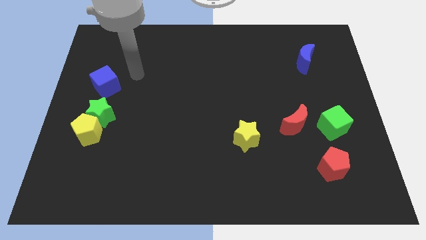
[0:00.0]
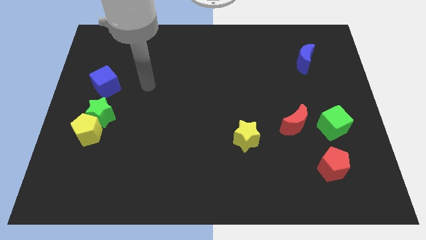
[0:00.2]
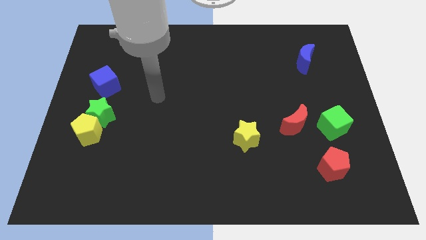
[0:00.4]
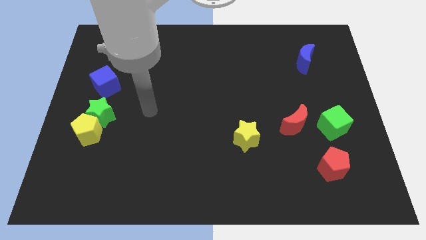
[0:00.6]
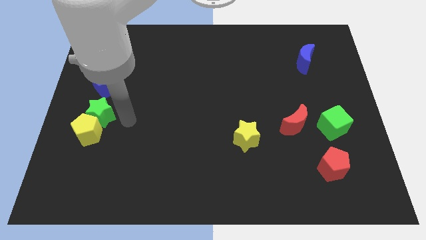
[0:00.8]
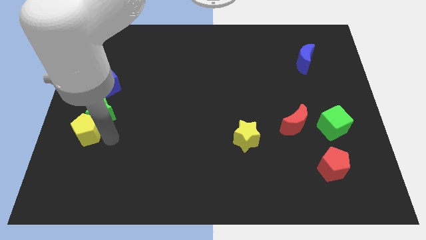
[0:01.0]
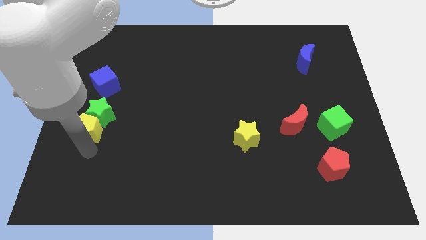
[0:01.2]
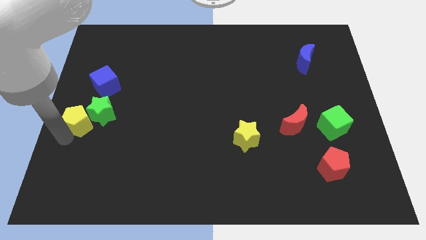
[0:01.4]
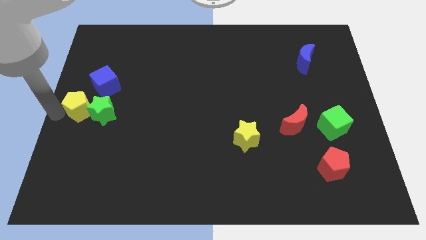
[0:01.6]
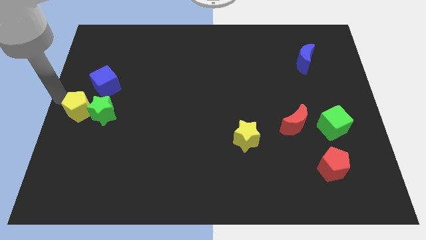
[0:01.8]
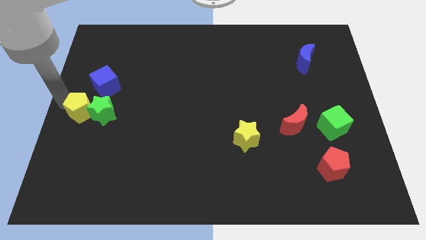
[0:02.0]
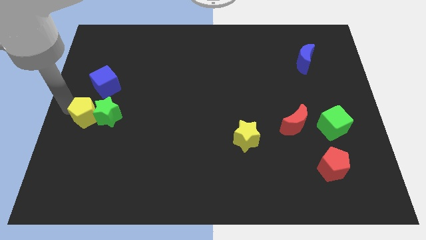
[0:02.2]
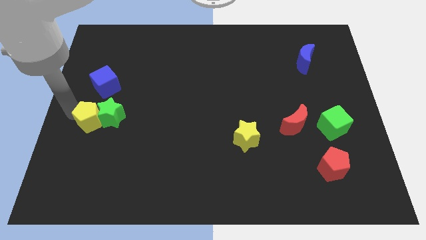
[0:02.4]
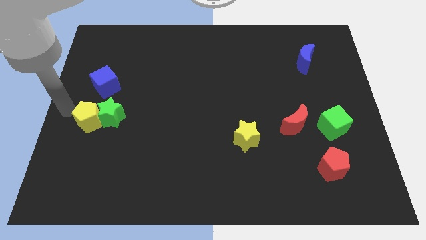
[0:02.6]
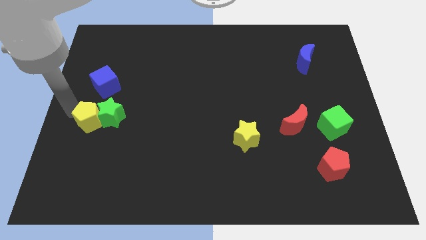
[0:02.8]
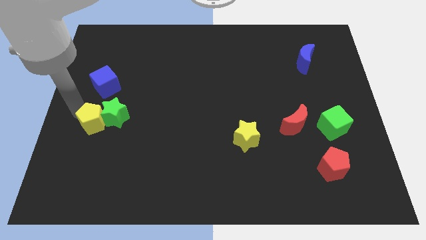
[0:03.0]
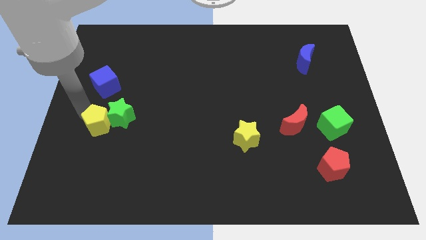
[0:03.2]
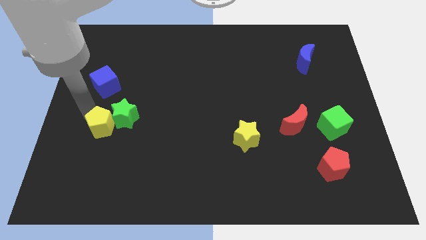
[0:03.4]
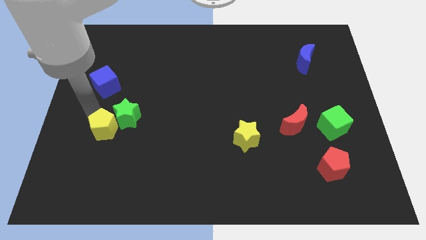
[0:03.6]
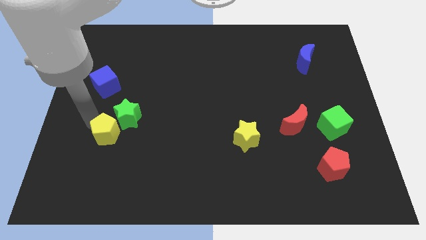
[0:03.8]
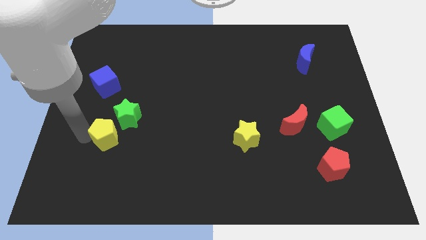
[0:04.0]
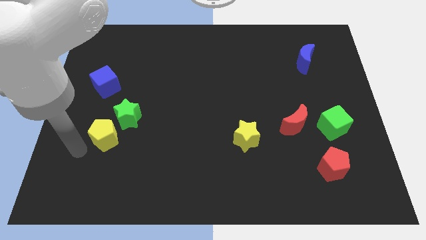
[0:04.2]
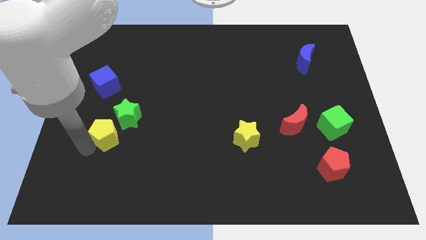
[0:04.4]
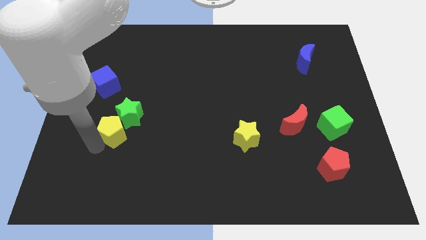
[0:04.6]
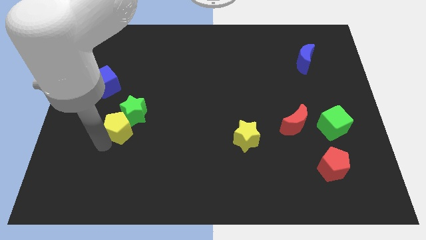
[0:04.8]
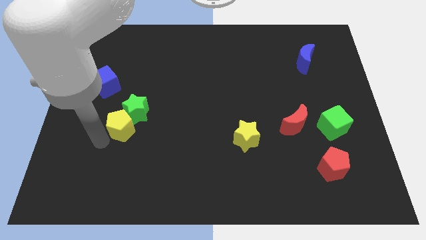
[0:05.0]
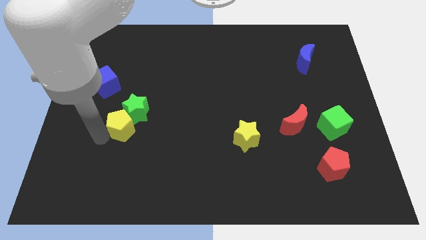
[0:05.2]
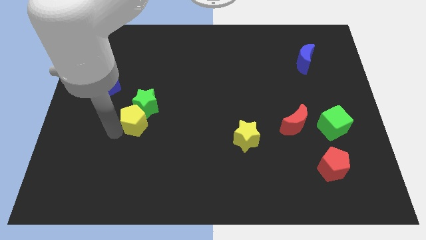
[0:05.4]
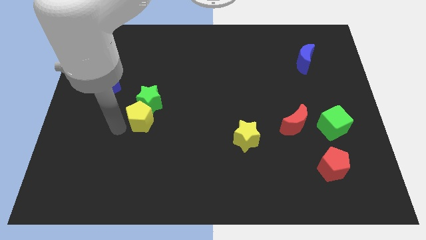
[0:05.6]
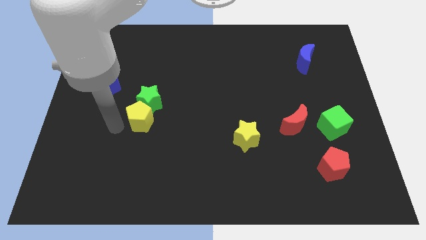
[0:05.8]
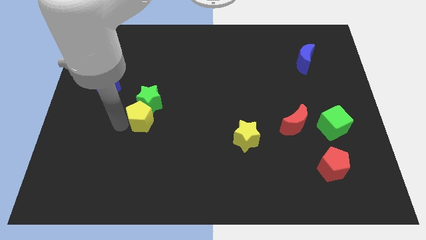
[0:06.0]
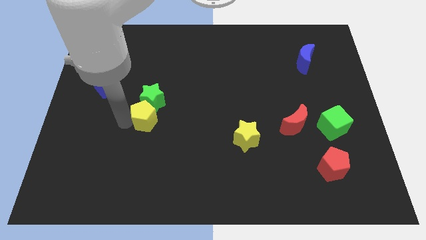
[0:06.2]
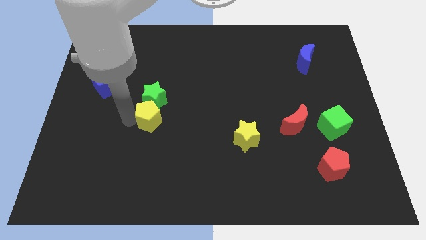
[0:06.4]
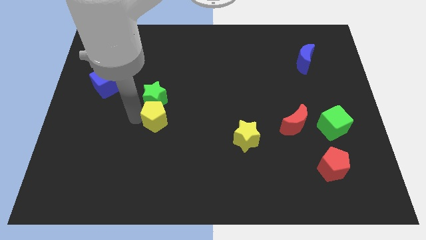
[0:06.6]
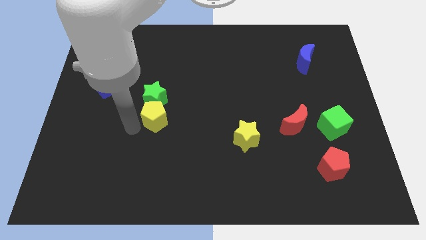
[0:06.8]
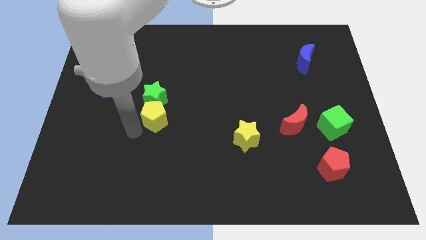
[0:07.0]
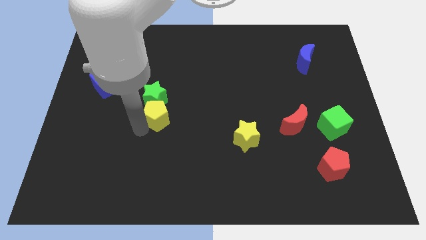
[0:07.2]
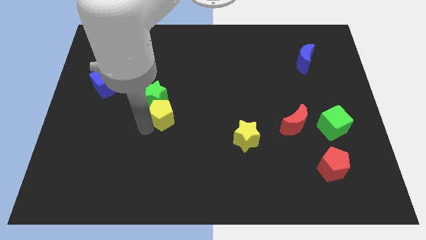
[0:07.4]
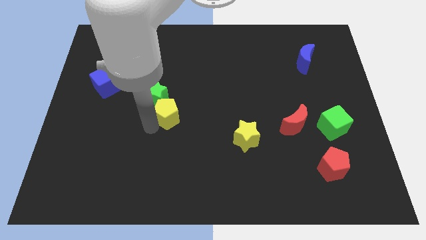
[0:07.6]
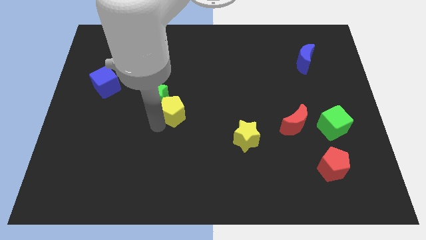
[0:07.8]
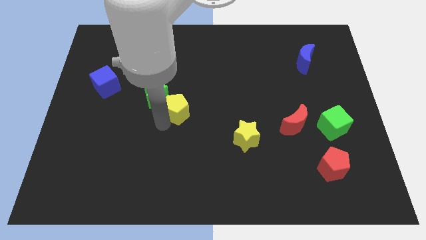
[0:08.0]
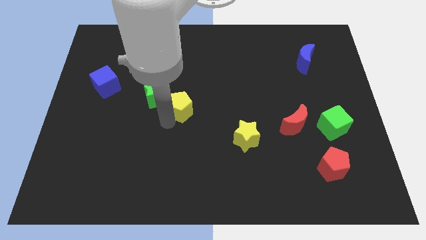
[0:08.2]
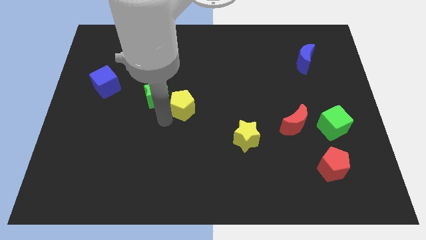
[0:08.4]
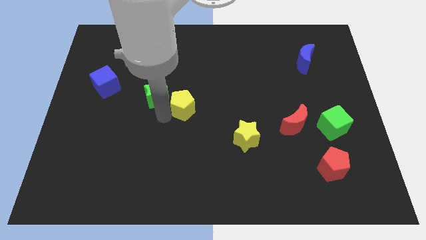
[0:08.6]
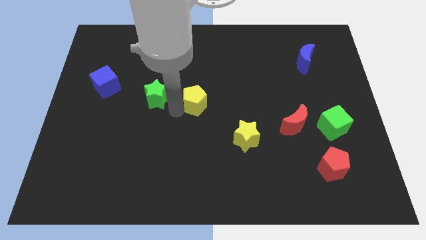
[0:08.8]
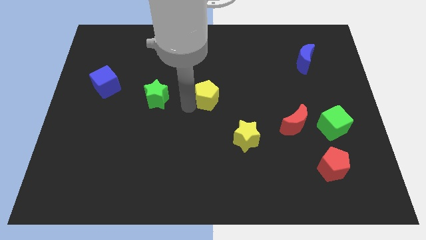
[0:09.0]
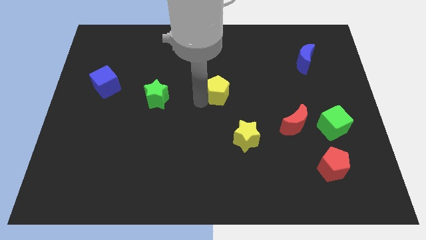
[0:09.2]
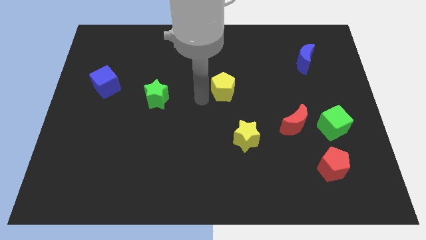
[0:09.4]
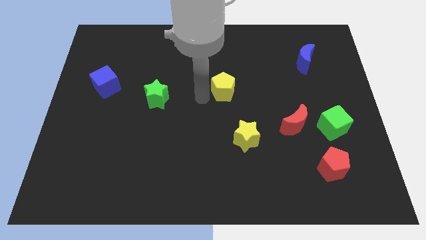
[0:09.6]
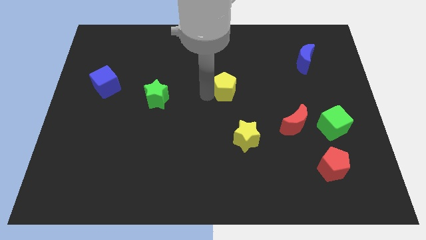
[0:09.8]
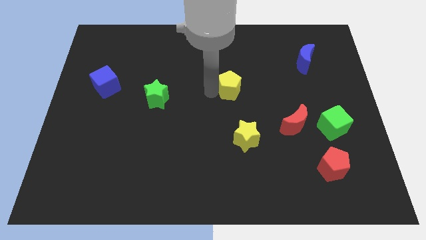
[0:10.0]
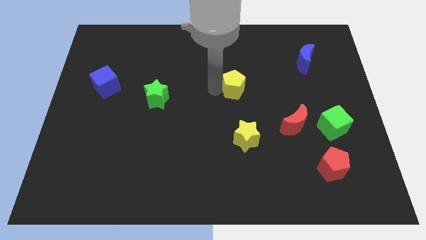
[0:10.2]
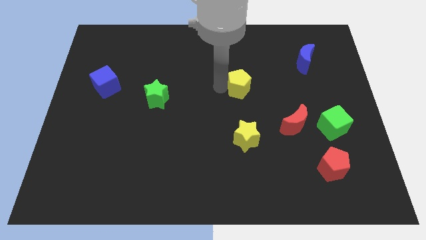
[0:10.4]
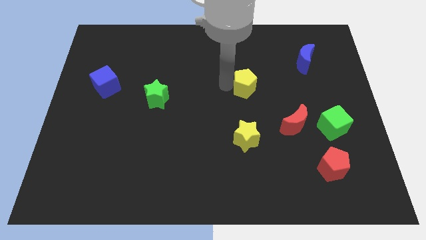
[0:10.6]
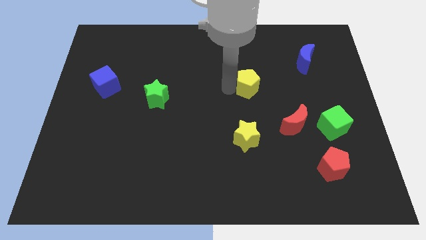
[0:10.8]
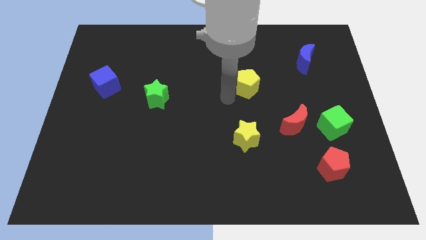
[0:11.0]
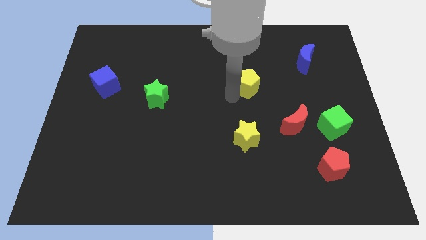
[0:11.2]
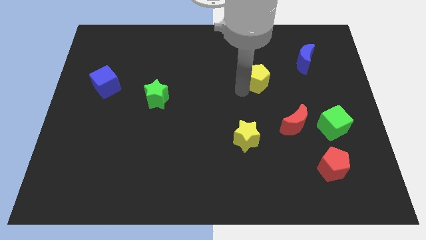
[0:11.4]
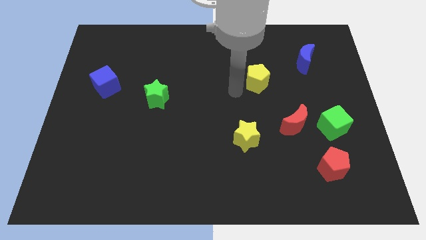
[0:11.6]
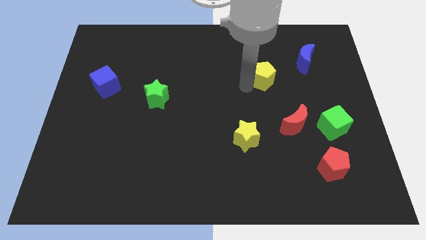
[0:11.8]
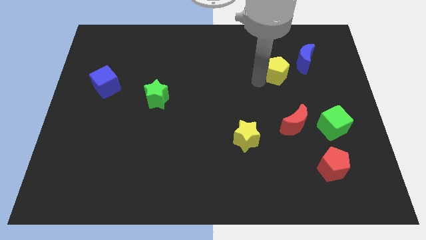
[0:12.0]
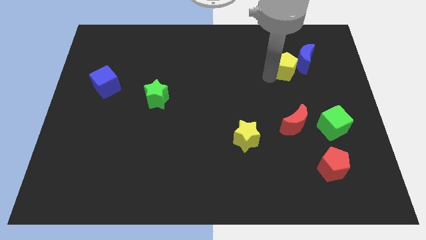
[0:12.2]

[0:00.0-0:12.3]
put the yellow pentagon close to the blue moon

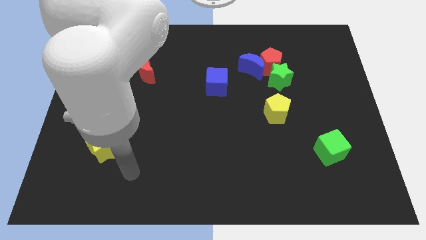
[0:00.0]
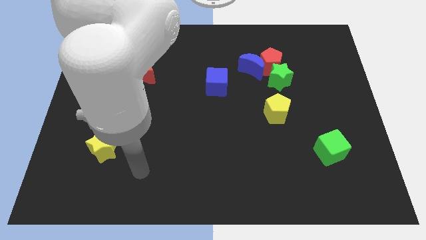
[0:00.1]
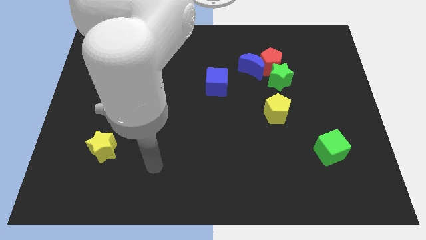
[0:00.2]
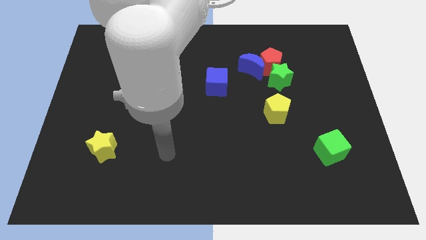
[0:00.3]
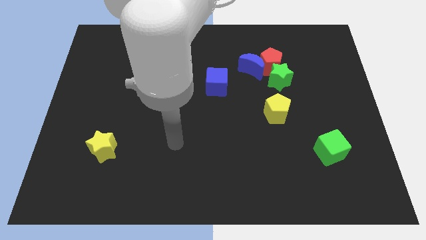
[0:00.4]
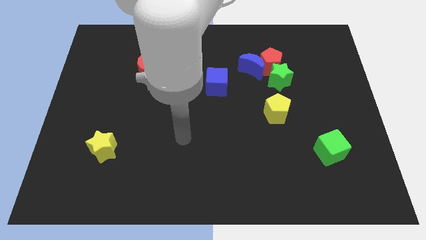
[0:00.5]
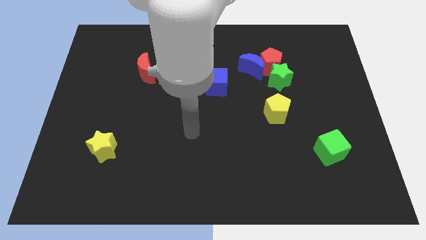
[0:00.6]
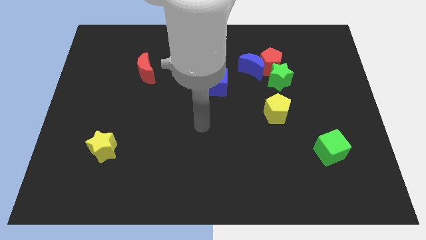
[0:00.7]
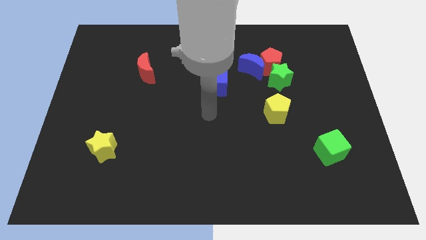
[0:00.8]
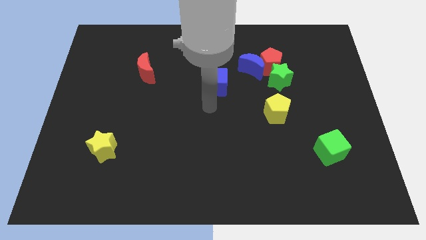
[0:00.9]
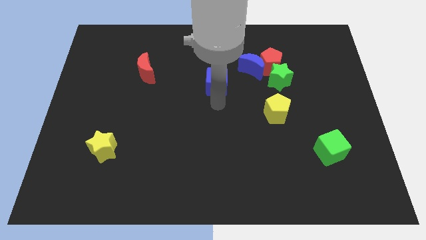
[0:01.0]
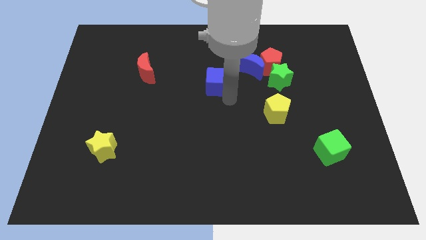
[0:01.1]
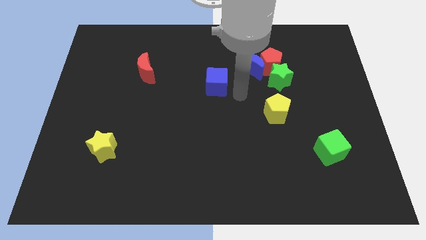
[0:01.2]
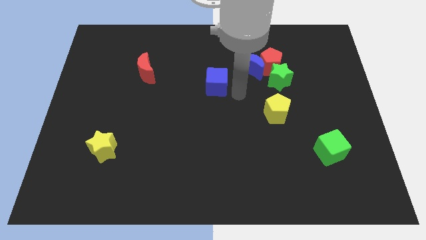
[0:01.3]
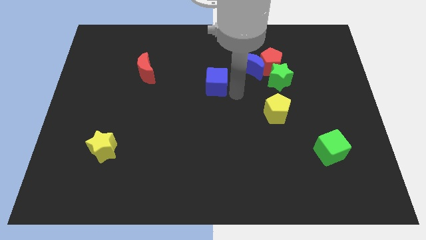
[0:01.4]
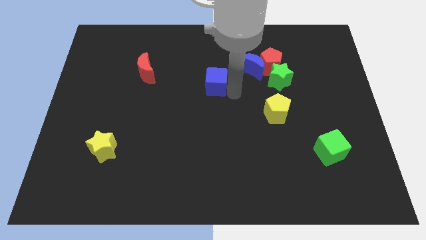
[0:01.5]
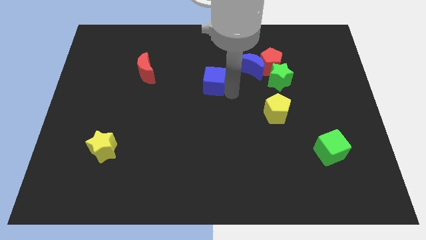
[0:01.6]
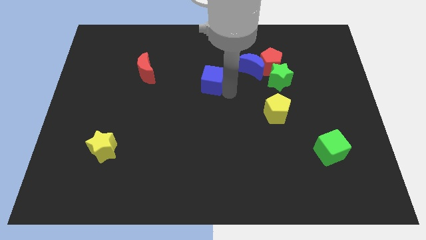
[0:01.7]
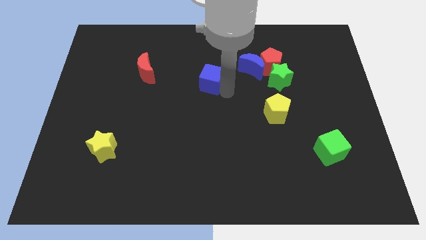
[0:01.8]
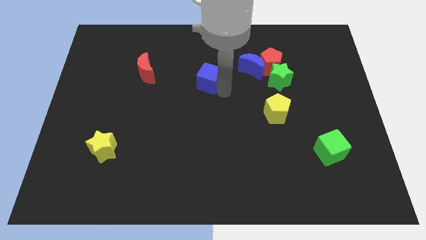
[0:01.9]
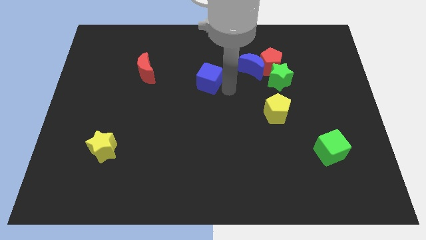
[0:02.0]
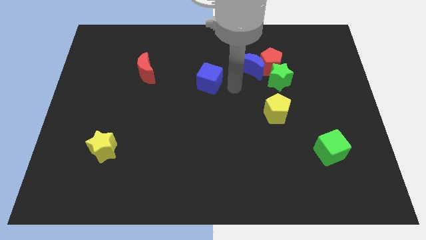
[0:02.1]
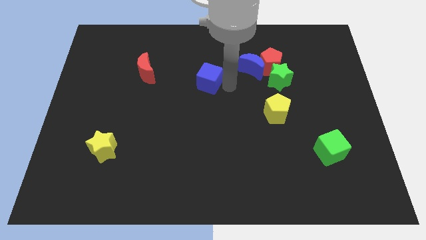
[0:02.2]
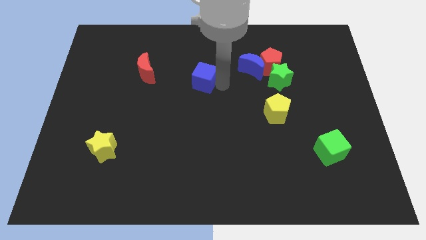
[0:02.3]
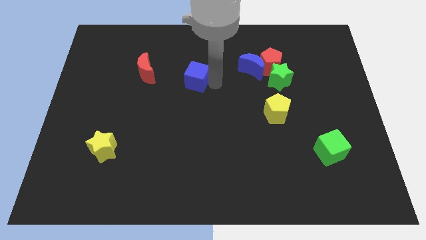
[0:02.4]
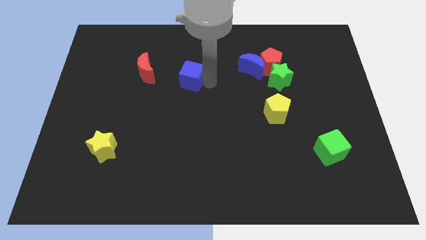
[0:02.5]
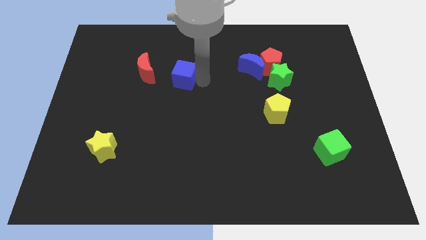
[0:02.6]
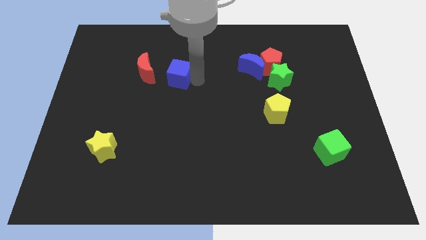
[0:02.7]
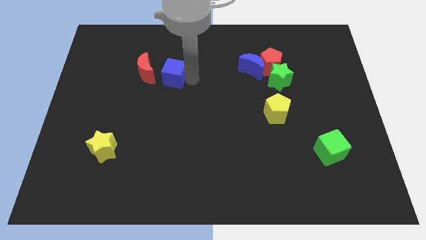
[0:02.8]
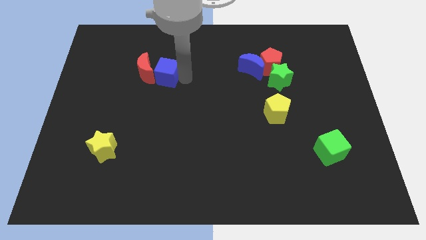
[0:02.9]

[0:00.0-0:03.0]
push the blue cube next to the red moon
